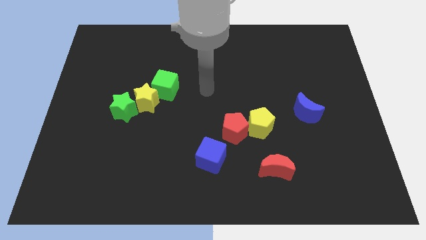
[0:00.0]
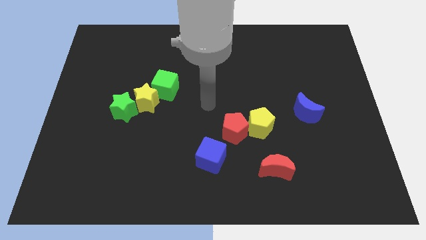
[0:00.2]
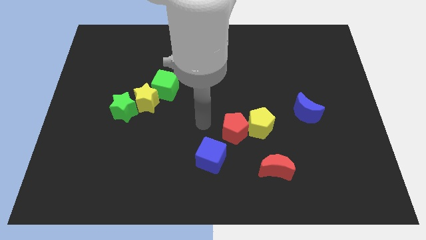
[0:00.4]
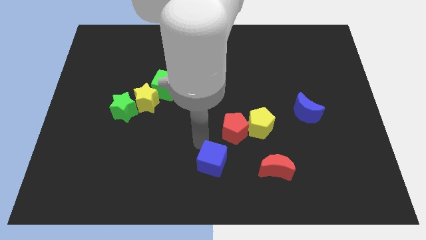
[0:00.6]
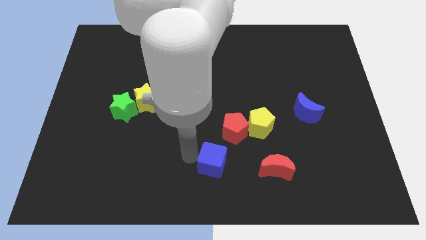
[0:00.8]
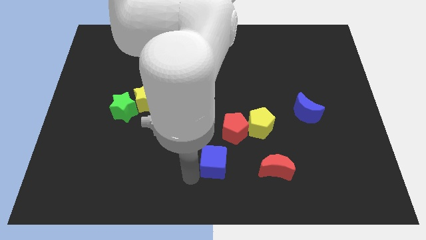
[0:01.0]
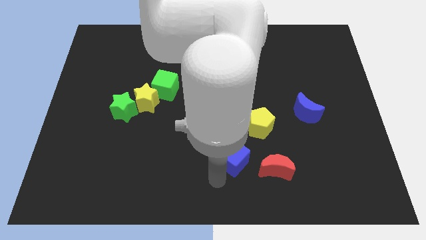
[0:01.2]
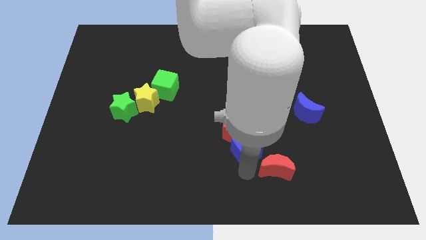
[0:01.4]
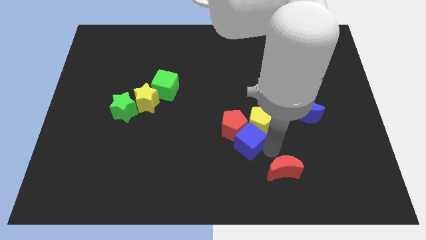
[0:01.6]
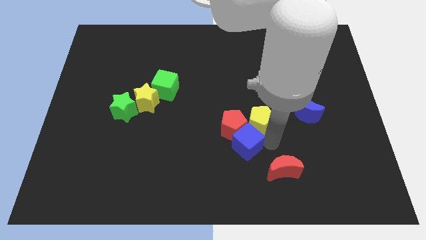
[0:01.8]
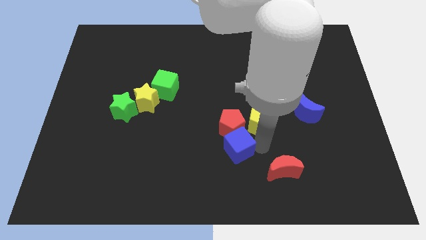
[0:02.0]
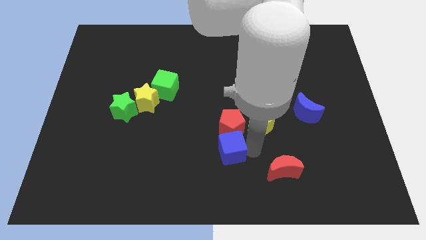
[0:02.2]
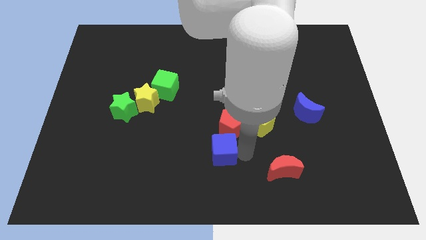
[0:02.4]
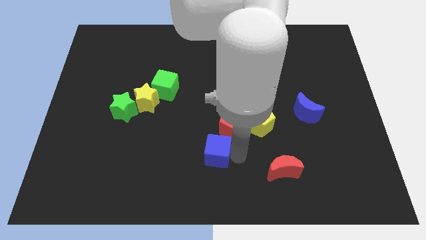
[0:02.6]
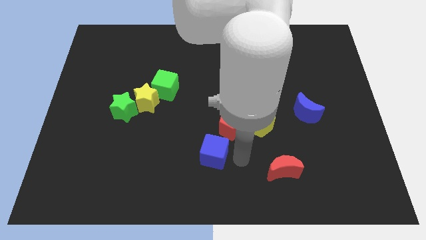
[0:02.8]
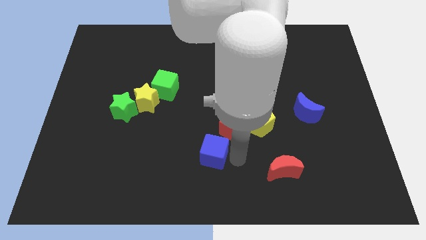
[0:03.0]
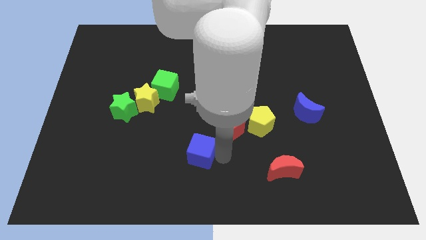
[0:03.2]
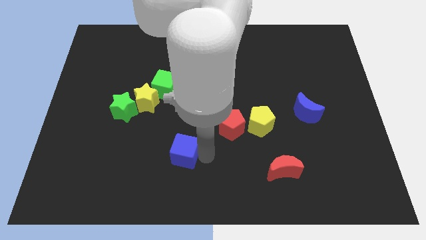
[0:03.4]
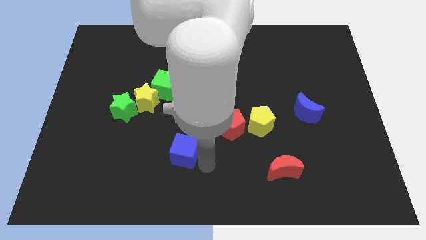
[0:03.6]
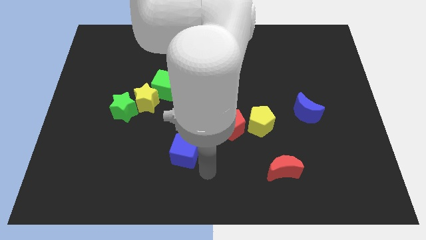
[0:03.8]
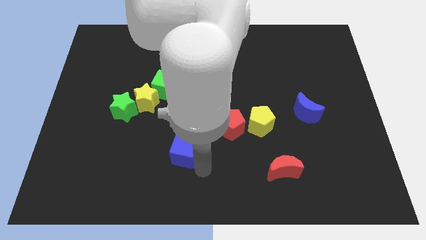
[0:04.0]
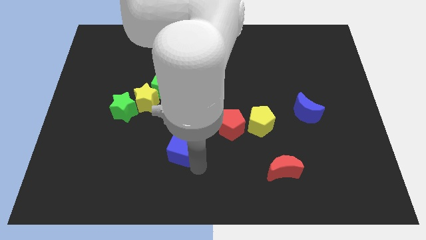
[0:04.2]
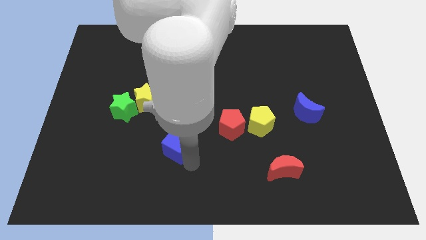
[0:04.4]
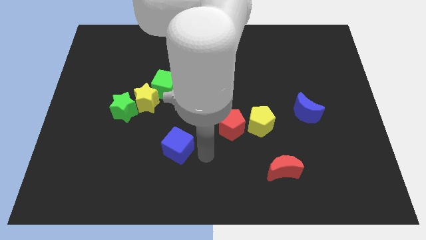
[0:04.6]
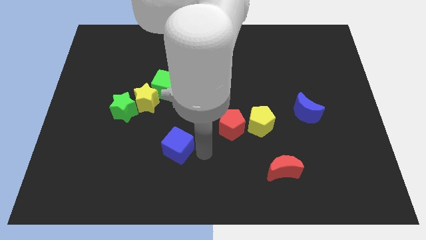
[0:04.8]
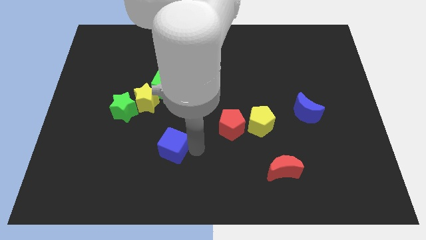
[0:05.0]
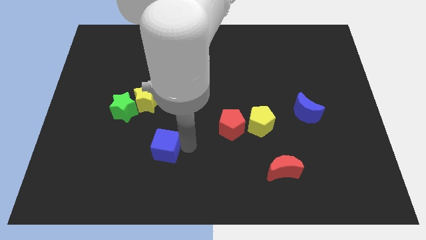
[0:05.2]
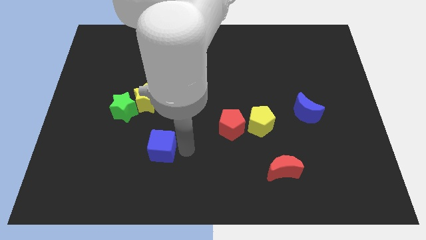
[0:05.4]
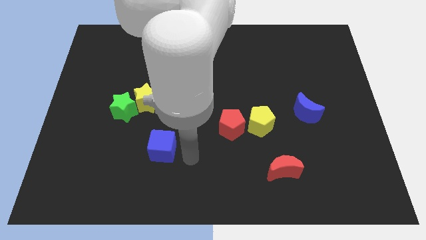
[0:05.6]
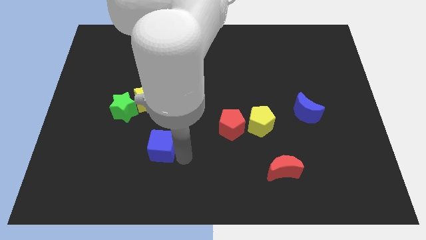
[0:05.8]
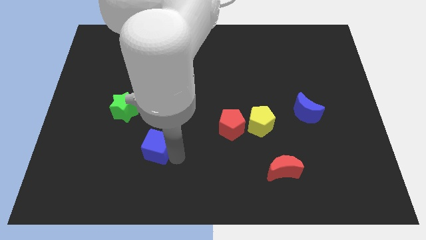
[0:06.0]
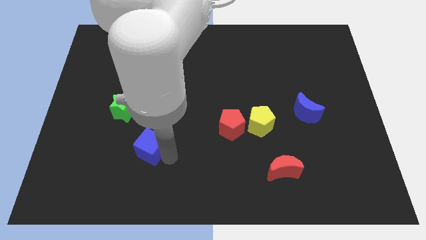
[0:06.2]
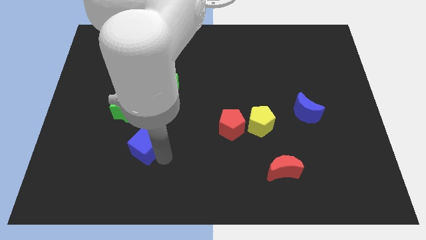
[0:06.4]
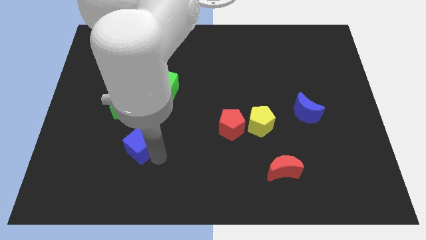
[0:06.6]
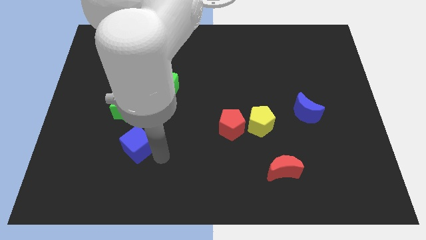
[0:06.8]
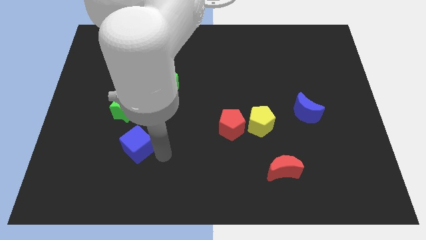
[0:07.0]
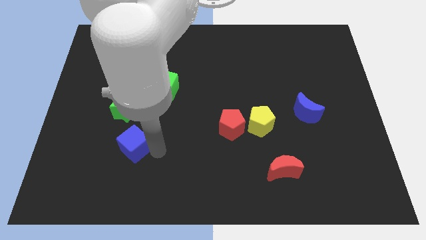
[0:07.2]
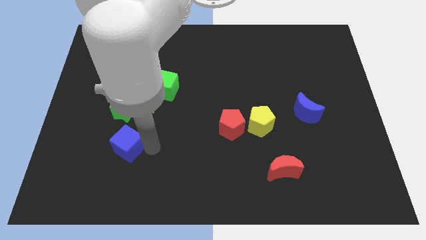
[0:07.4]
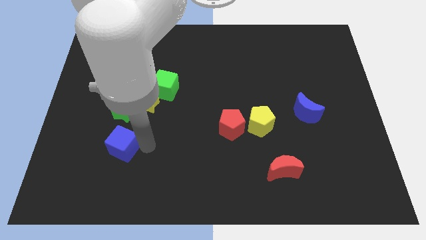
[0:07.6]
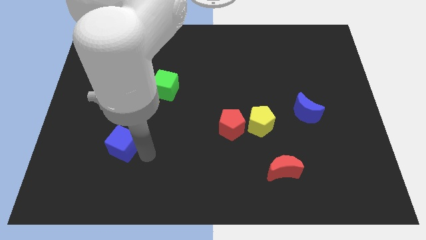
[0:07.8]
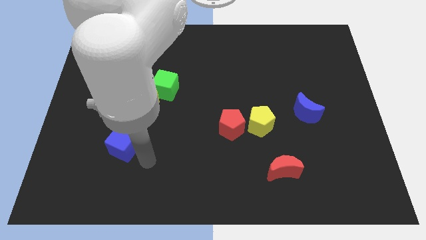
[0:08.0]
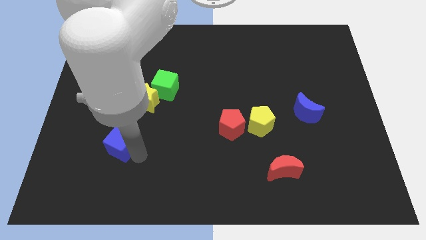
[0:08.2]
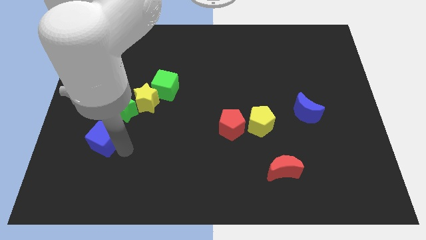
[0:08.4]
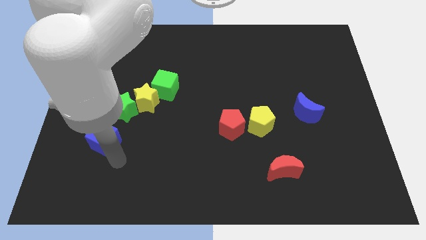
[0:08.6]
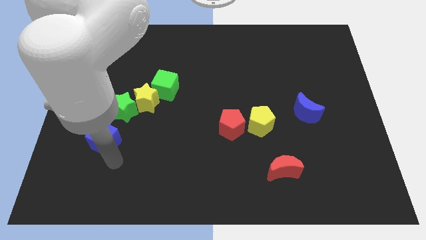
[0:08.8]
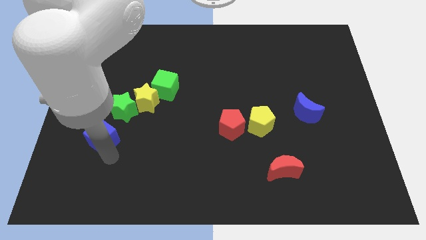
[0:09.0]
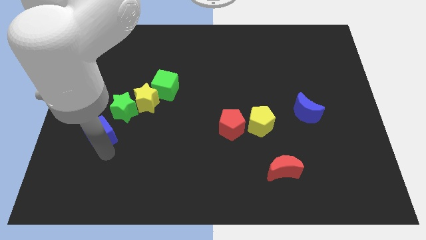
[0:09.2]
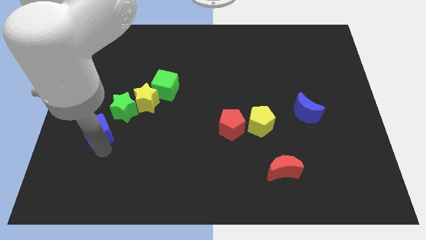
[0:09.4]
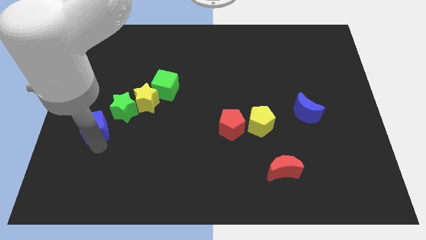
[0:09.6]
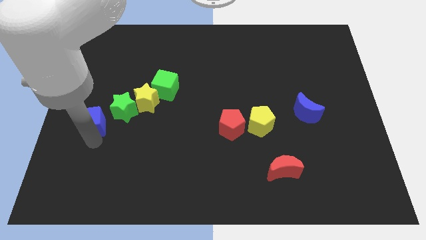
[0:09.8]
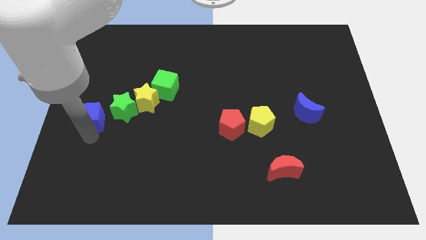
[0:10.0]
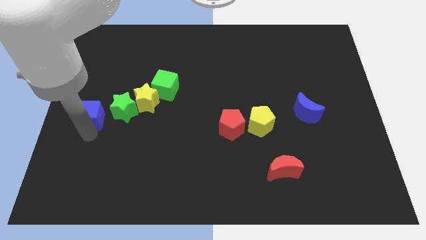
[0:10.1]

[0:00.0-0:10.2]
push the blue cube left of the yellow star

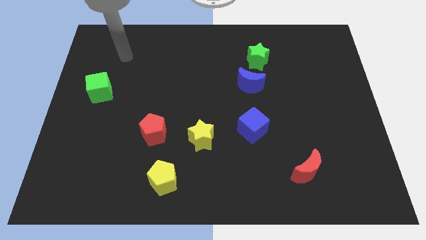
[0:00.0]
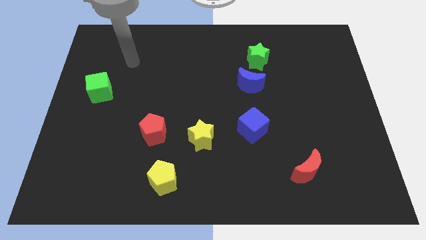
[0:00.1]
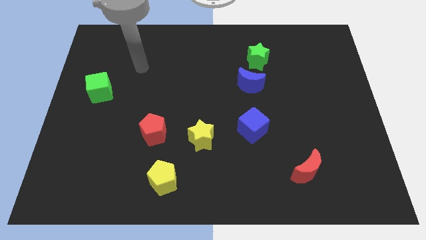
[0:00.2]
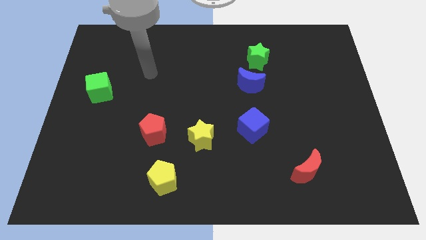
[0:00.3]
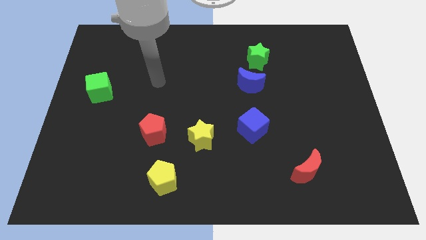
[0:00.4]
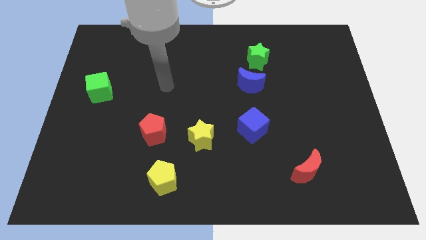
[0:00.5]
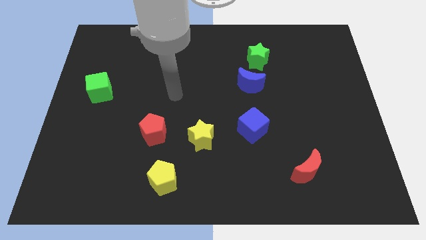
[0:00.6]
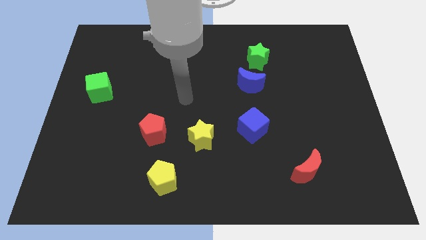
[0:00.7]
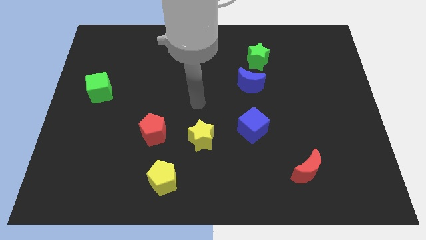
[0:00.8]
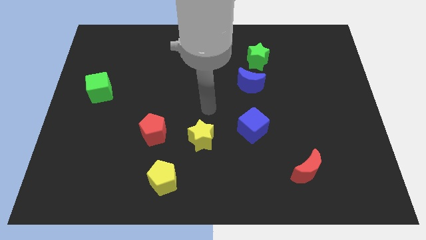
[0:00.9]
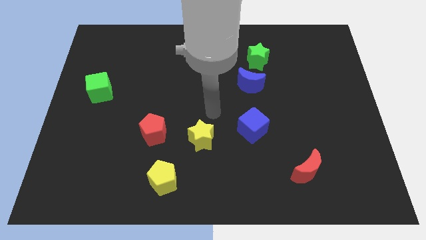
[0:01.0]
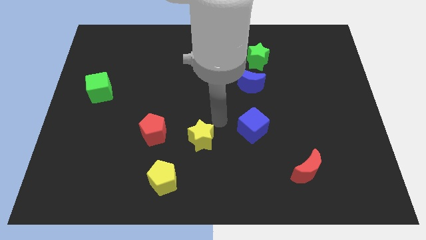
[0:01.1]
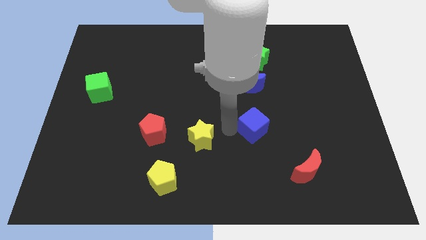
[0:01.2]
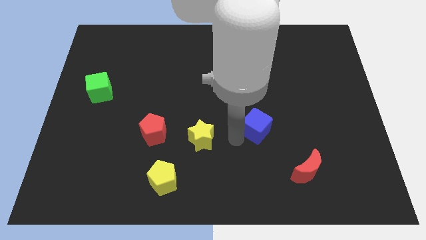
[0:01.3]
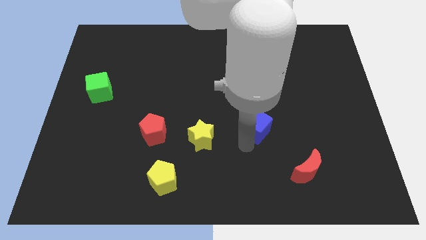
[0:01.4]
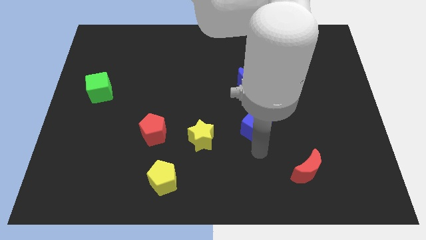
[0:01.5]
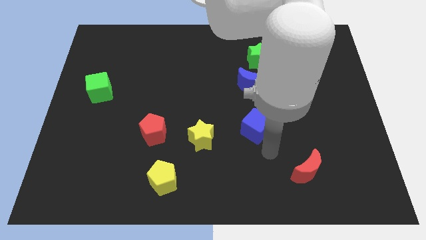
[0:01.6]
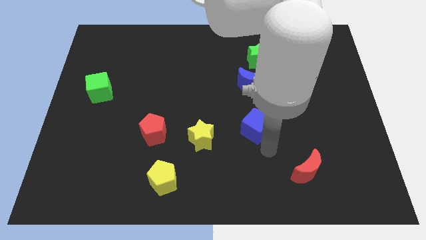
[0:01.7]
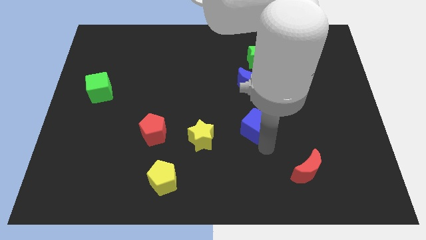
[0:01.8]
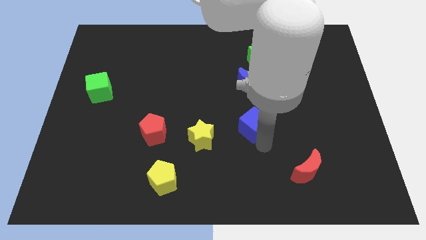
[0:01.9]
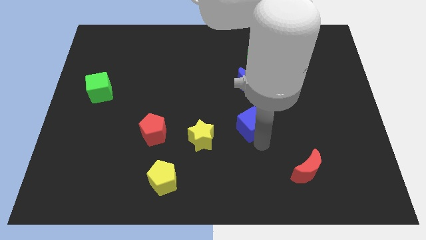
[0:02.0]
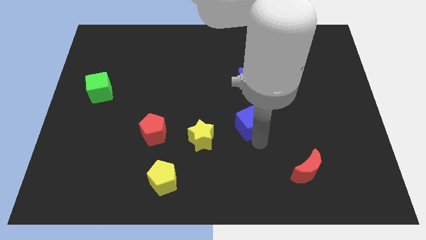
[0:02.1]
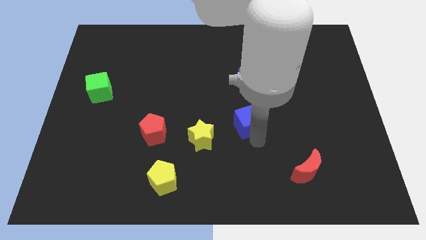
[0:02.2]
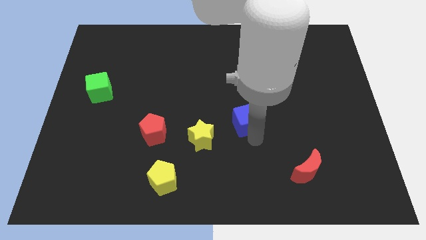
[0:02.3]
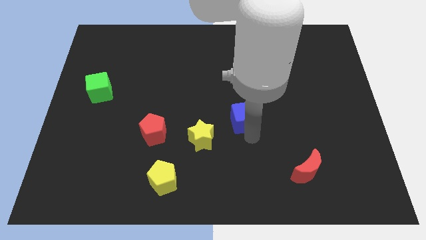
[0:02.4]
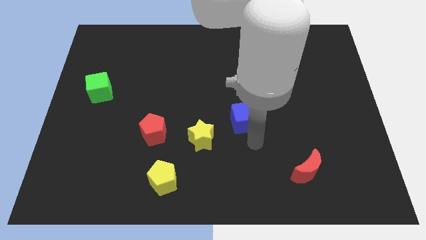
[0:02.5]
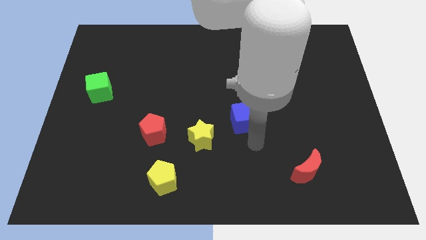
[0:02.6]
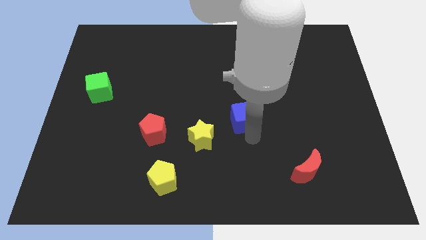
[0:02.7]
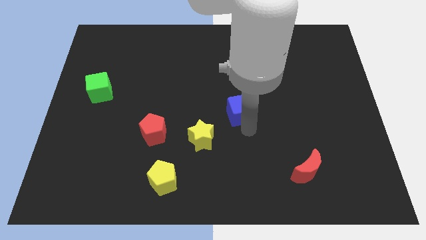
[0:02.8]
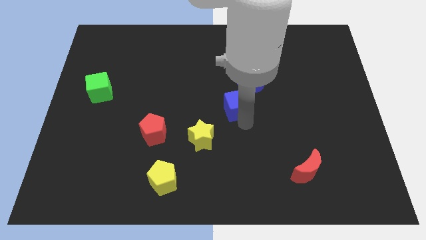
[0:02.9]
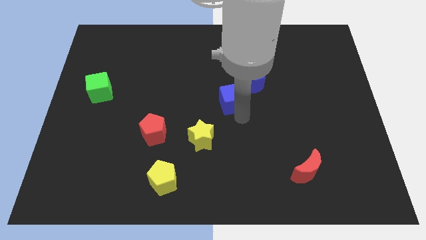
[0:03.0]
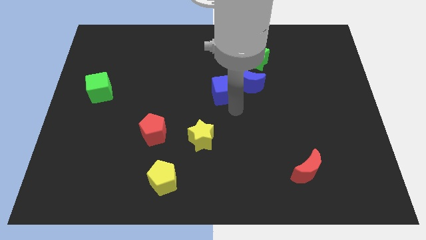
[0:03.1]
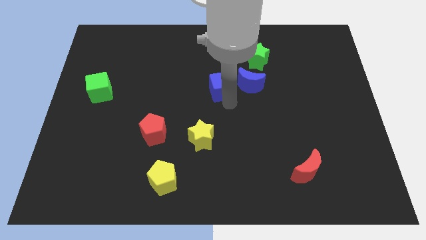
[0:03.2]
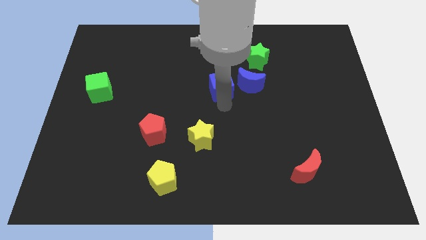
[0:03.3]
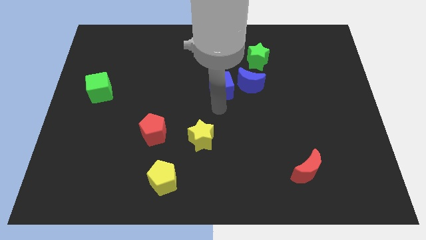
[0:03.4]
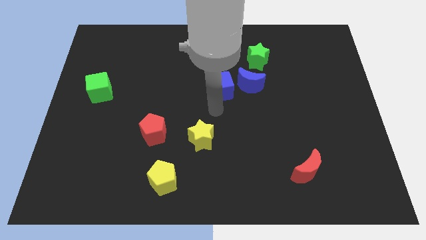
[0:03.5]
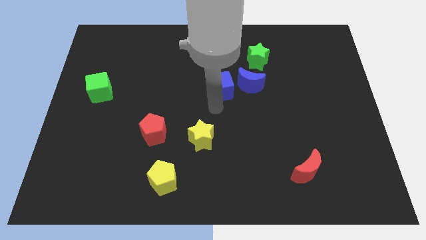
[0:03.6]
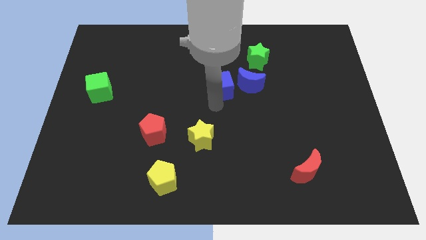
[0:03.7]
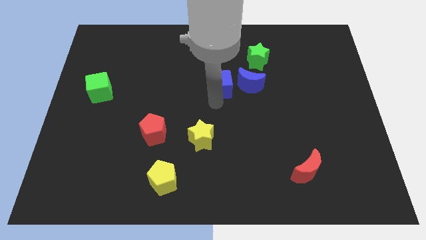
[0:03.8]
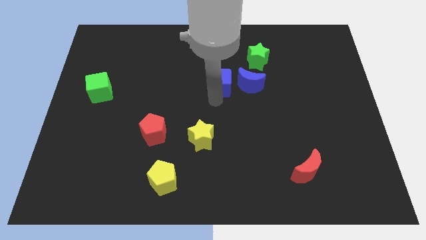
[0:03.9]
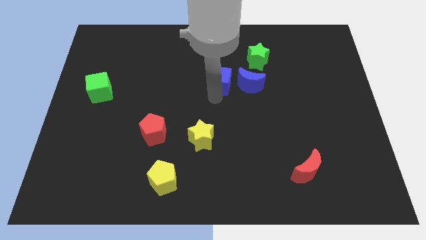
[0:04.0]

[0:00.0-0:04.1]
move the blue cube diagonally up and to the left of the blue moon
